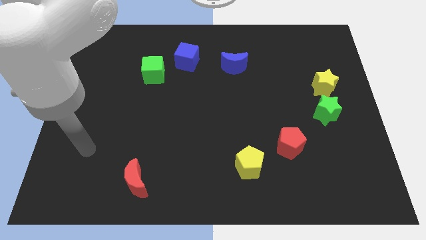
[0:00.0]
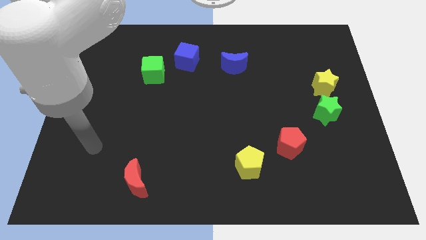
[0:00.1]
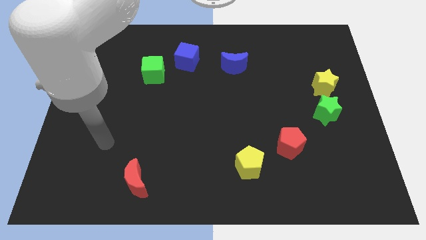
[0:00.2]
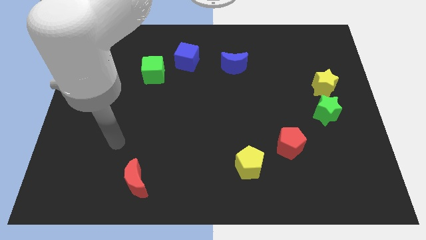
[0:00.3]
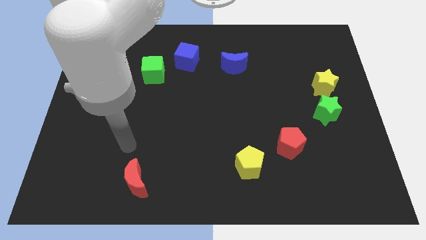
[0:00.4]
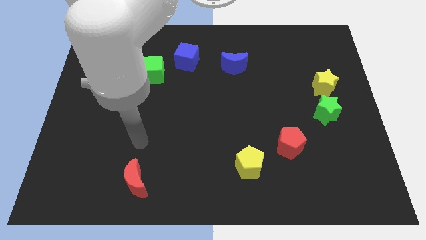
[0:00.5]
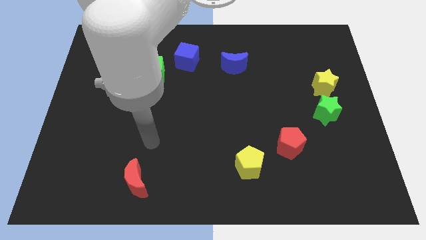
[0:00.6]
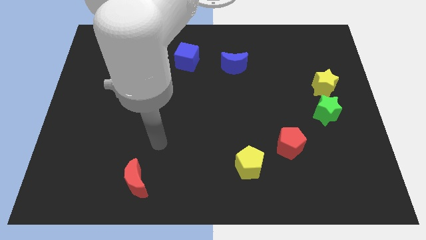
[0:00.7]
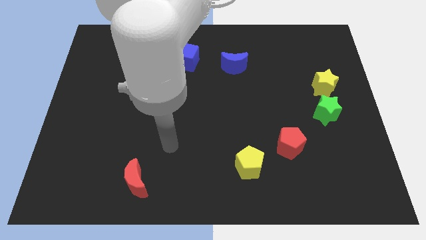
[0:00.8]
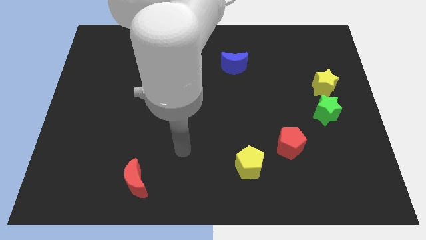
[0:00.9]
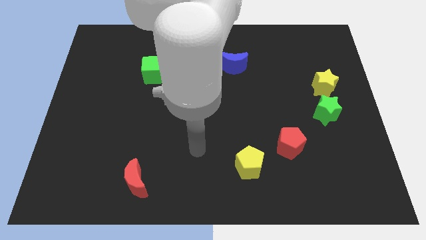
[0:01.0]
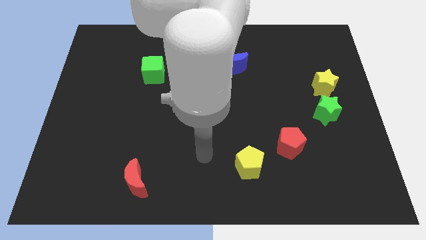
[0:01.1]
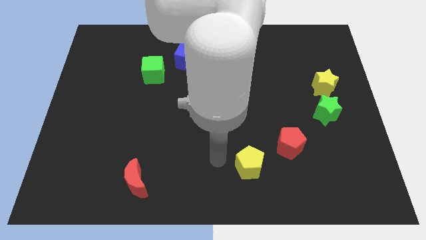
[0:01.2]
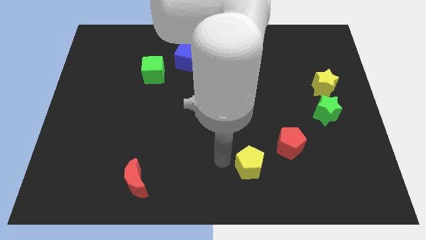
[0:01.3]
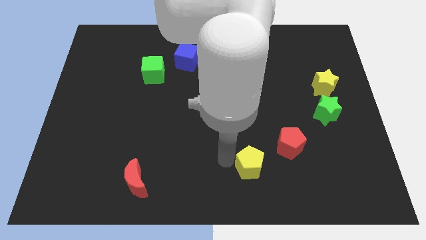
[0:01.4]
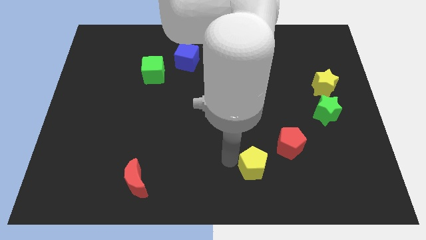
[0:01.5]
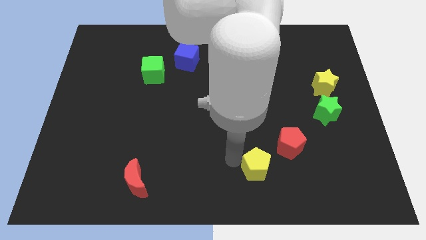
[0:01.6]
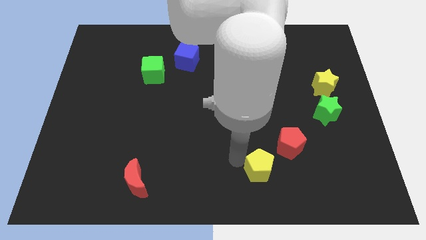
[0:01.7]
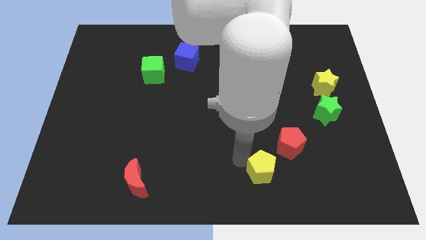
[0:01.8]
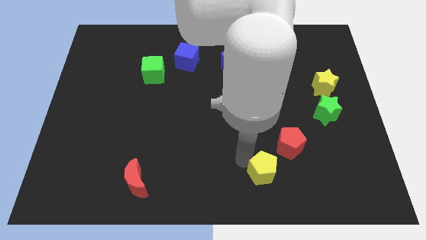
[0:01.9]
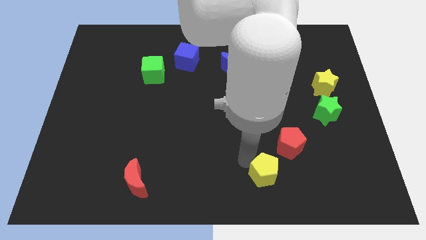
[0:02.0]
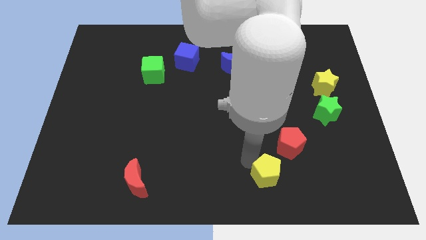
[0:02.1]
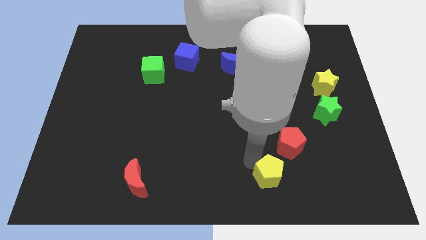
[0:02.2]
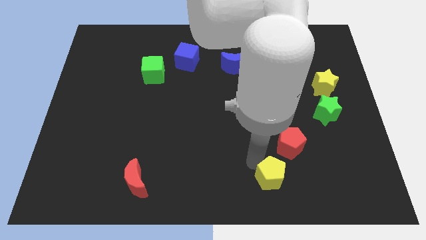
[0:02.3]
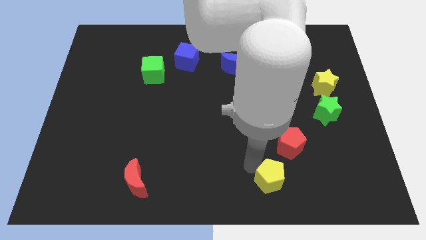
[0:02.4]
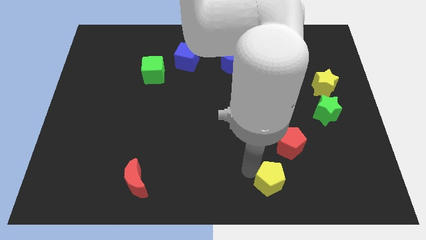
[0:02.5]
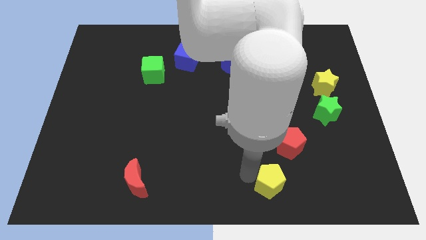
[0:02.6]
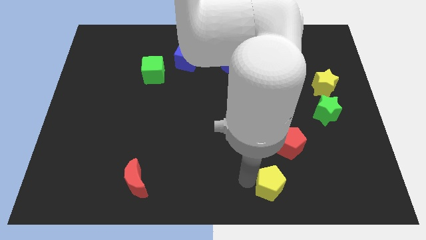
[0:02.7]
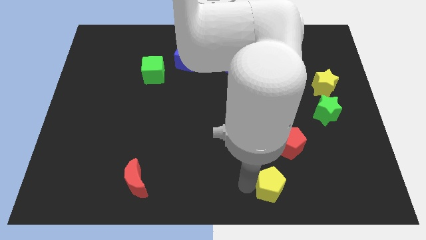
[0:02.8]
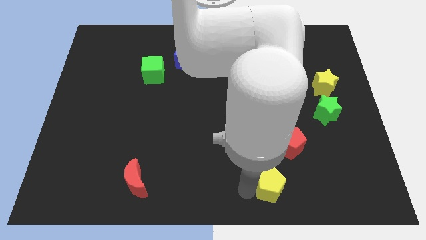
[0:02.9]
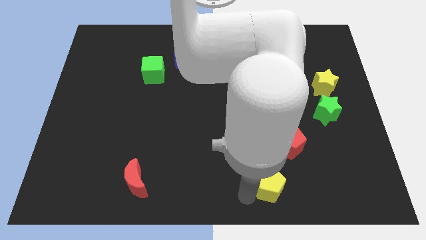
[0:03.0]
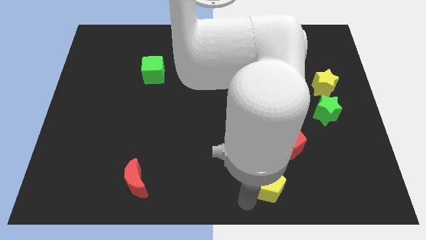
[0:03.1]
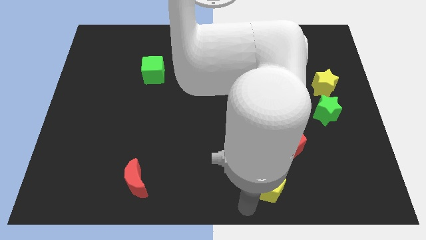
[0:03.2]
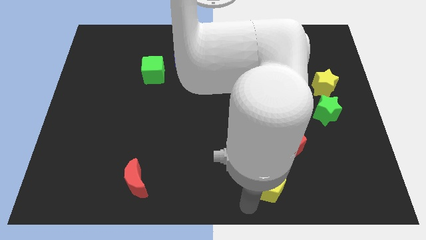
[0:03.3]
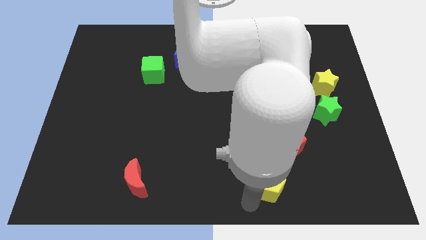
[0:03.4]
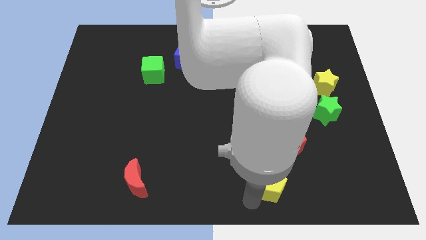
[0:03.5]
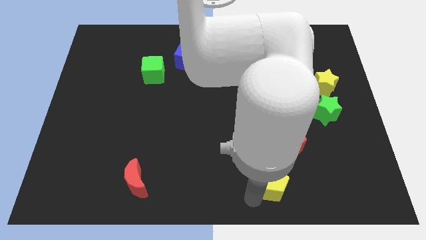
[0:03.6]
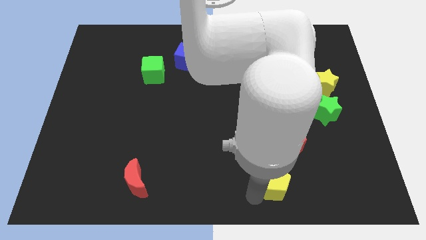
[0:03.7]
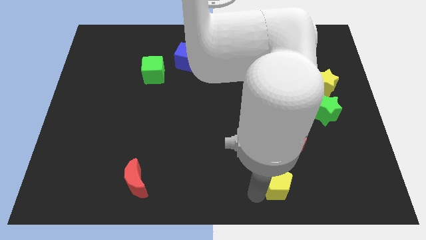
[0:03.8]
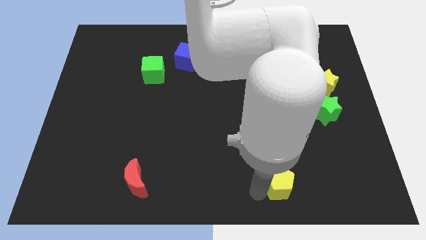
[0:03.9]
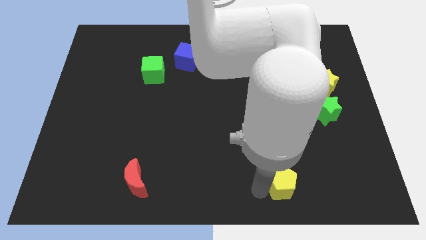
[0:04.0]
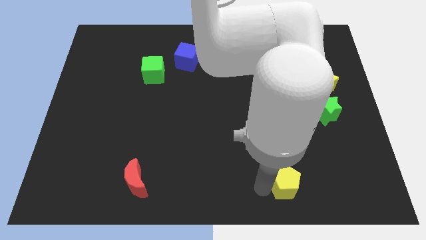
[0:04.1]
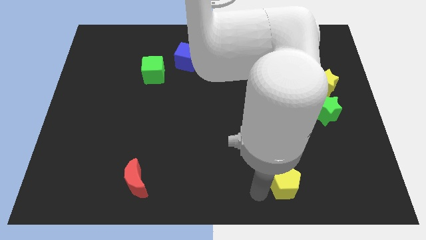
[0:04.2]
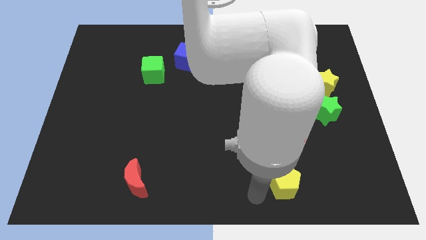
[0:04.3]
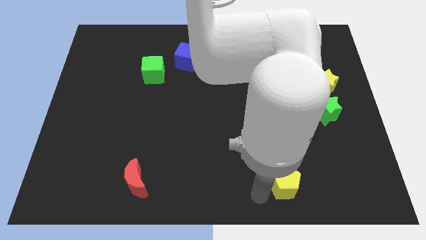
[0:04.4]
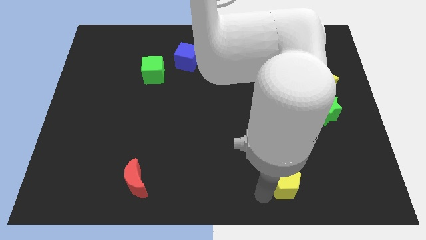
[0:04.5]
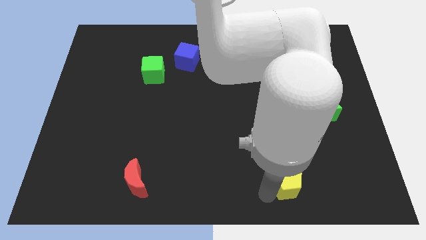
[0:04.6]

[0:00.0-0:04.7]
push the yellow pentagon to the right a little

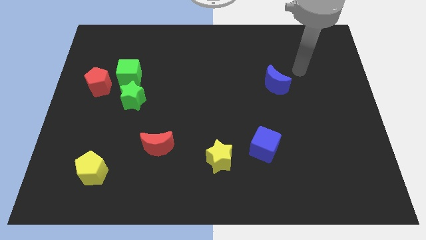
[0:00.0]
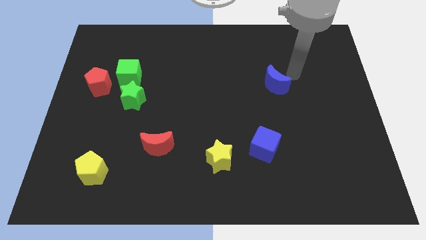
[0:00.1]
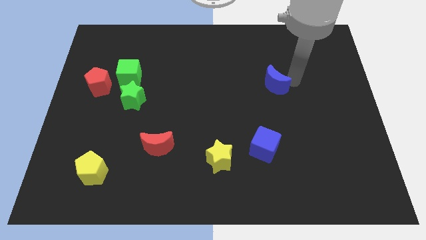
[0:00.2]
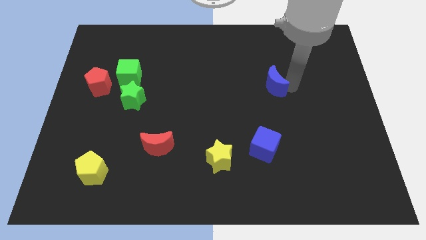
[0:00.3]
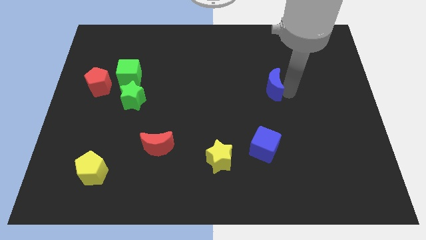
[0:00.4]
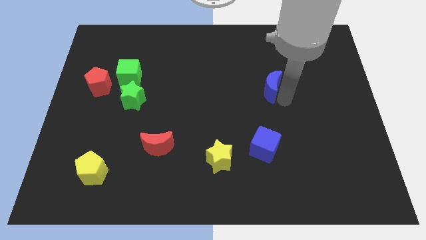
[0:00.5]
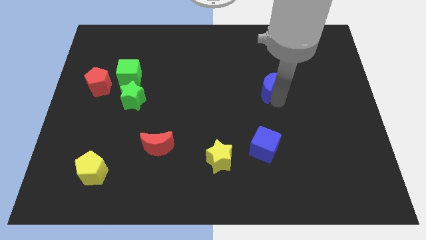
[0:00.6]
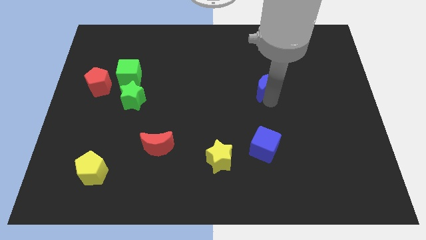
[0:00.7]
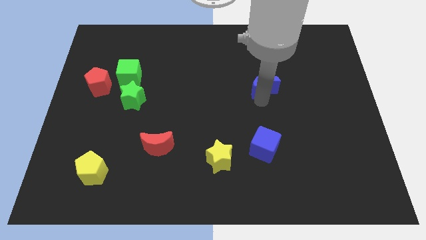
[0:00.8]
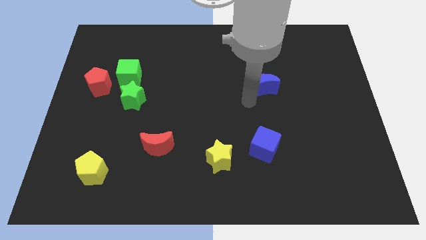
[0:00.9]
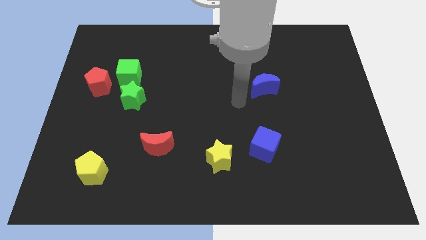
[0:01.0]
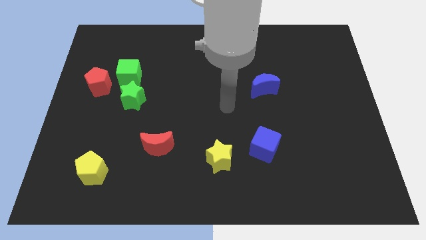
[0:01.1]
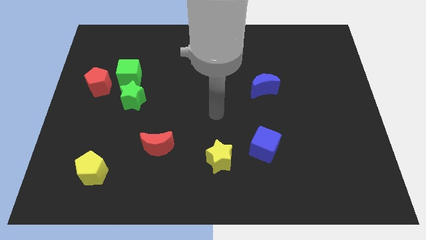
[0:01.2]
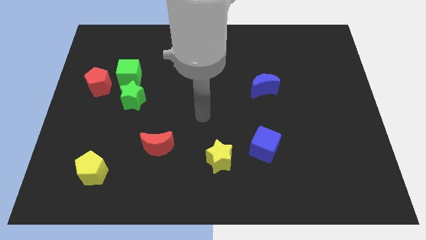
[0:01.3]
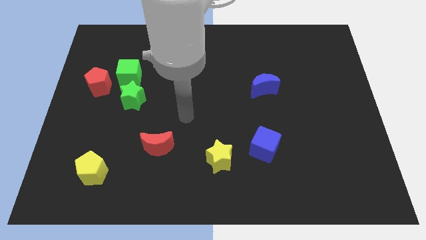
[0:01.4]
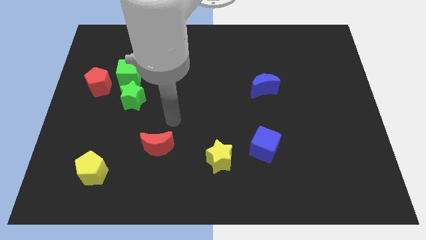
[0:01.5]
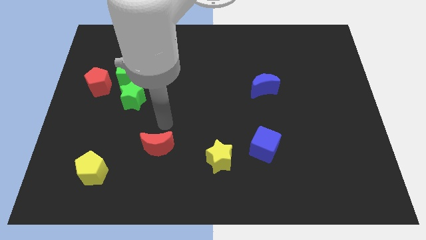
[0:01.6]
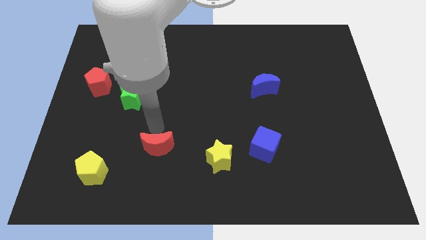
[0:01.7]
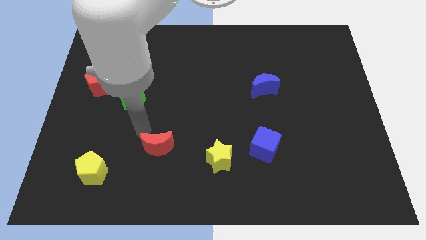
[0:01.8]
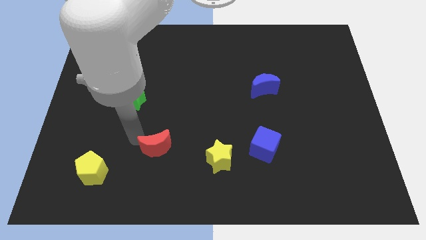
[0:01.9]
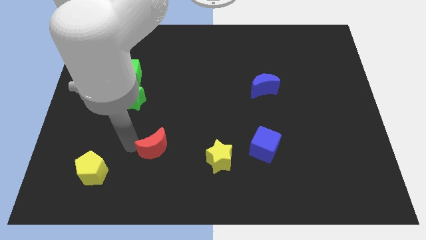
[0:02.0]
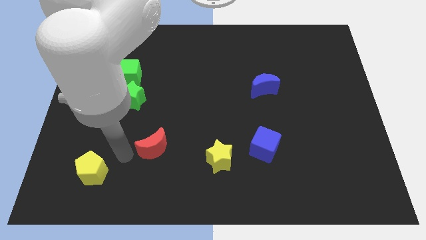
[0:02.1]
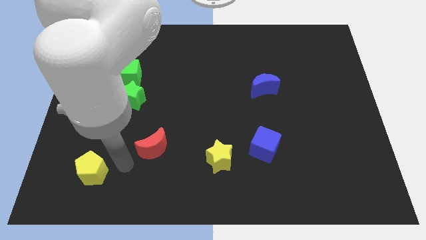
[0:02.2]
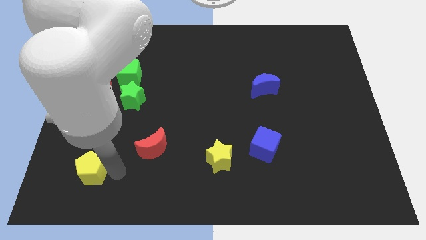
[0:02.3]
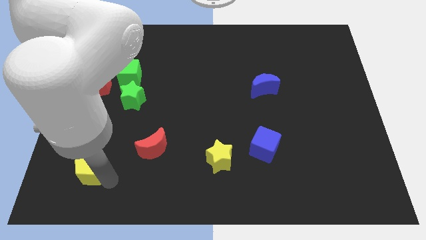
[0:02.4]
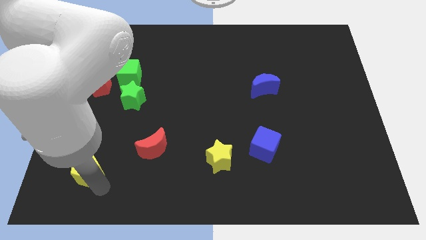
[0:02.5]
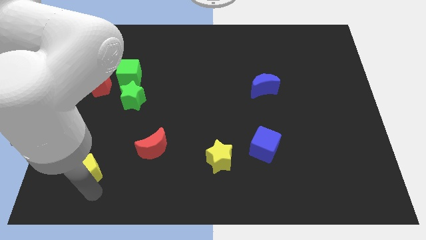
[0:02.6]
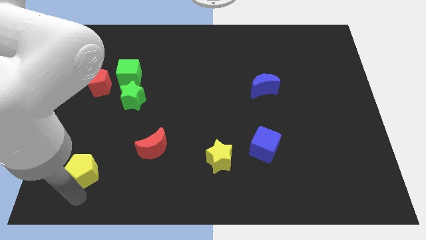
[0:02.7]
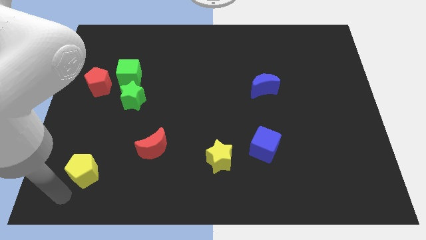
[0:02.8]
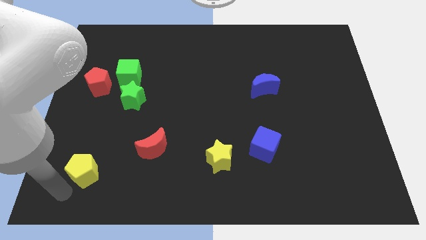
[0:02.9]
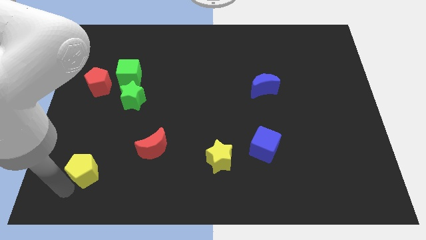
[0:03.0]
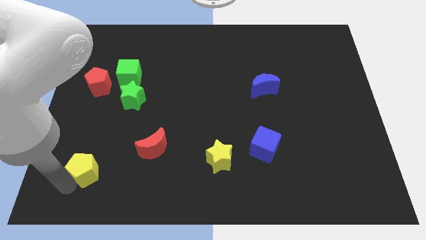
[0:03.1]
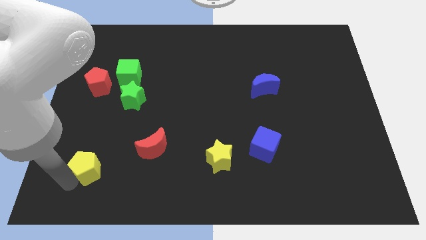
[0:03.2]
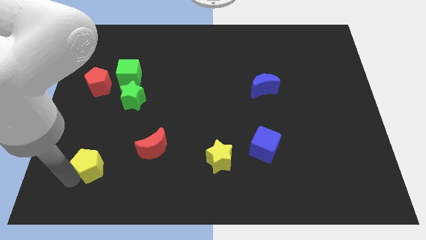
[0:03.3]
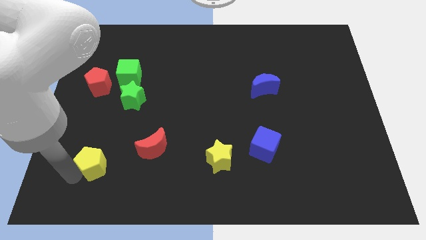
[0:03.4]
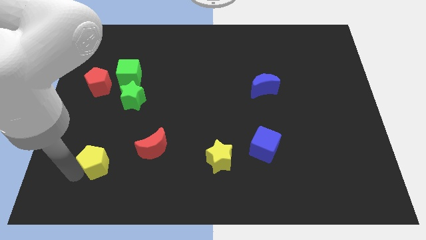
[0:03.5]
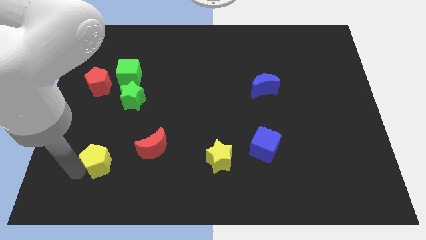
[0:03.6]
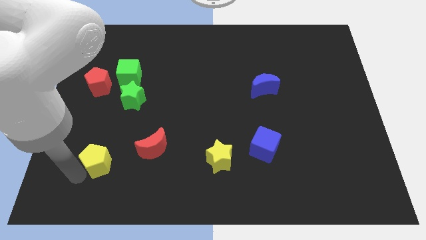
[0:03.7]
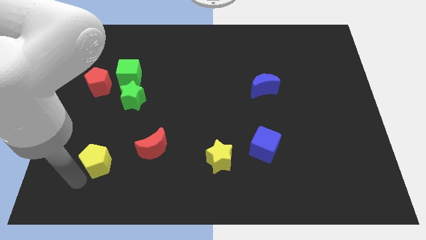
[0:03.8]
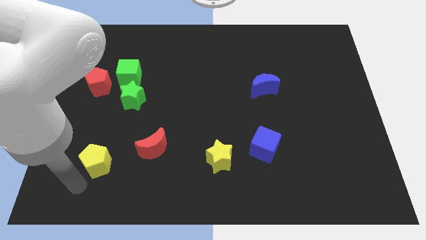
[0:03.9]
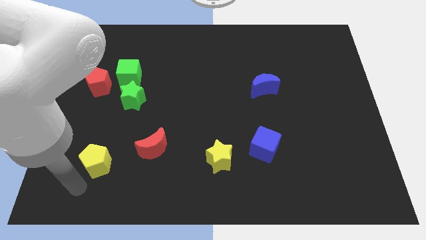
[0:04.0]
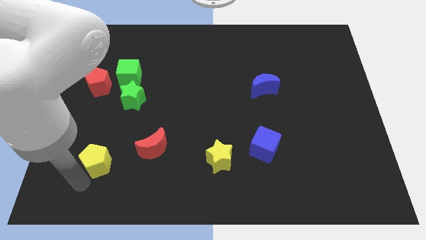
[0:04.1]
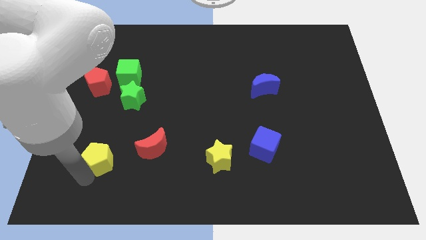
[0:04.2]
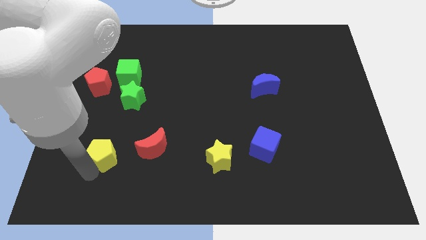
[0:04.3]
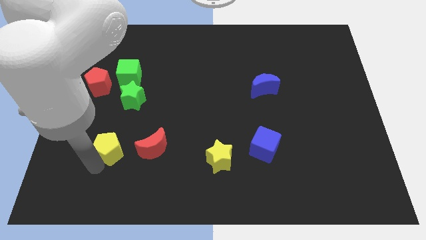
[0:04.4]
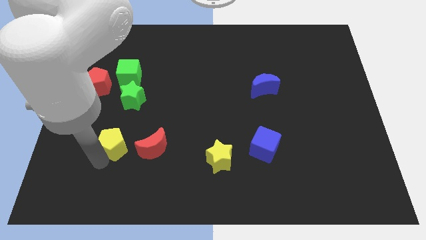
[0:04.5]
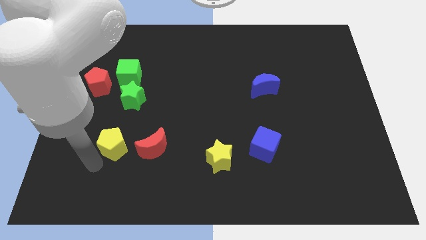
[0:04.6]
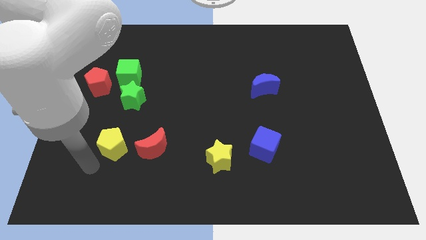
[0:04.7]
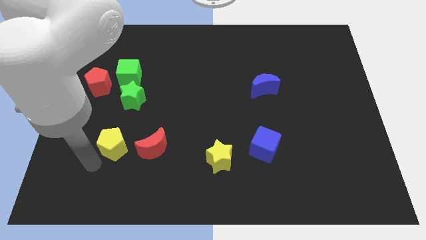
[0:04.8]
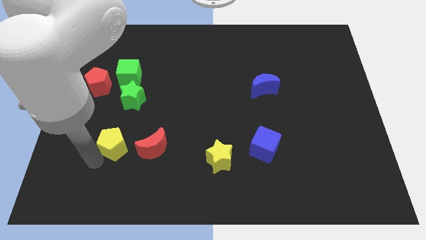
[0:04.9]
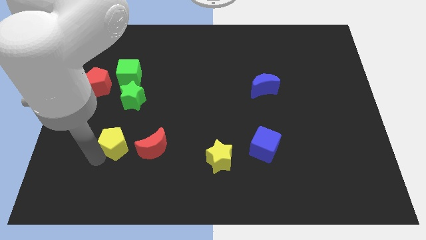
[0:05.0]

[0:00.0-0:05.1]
move the yellow pentagon a bit up and then to the right
